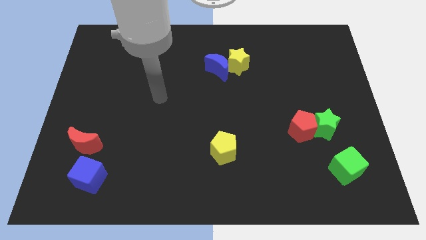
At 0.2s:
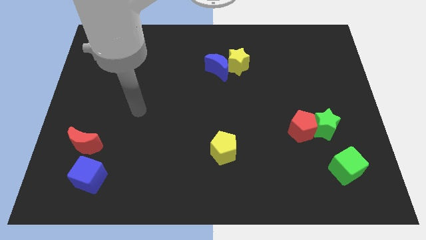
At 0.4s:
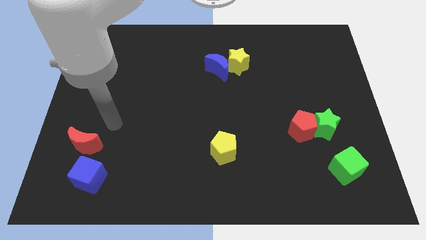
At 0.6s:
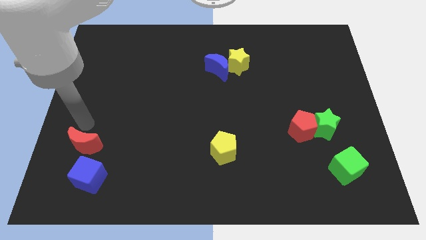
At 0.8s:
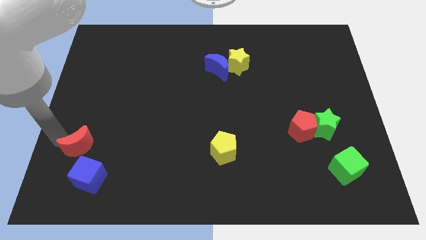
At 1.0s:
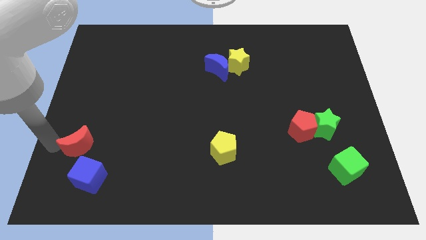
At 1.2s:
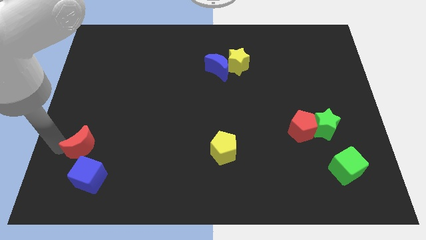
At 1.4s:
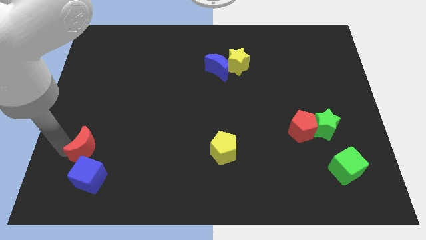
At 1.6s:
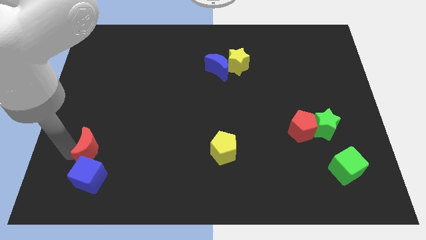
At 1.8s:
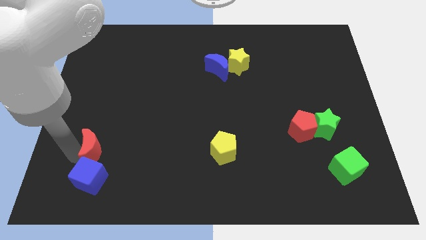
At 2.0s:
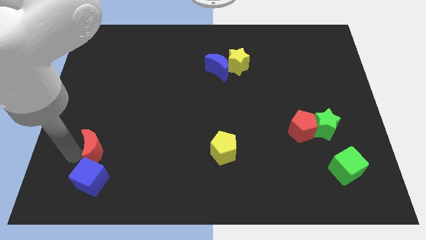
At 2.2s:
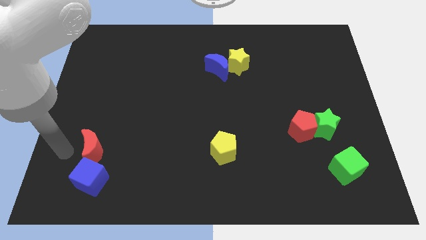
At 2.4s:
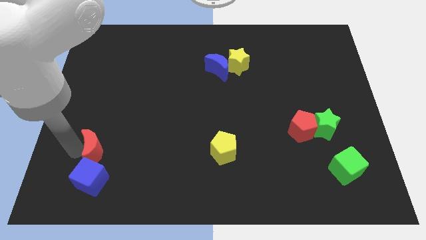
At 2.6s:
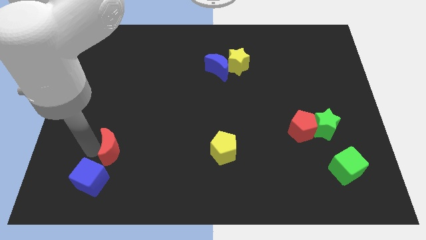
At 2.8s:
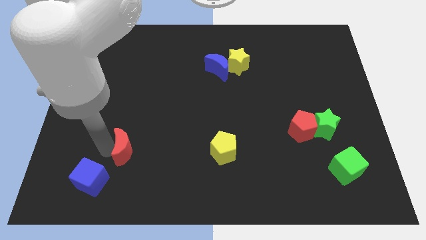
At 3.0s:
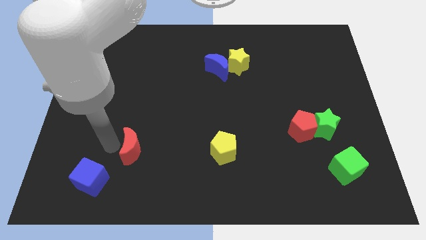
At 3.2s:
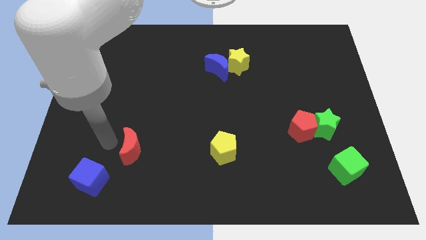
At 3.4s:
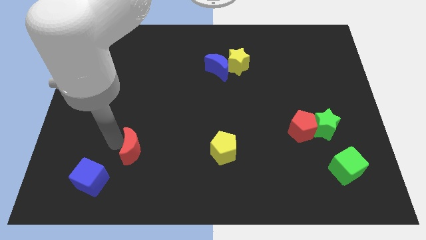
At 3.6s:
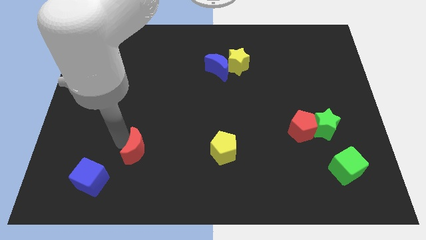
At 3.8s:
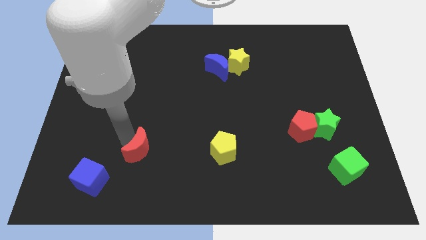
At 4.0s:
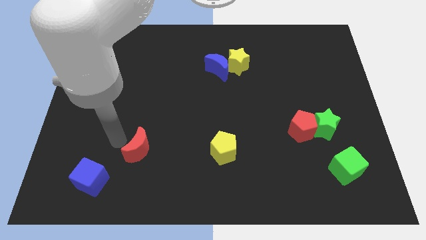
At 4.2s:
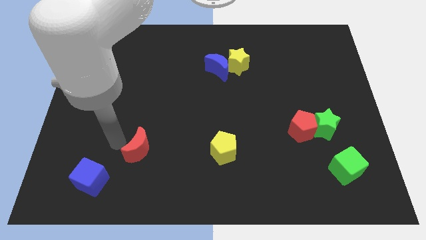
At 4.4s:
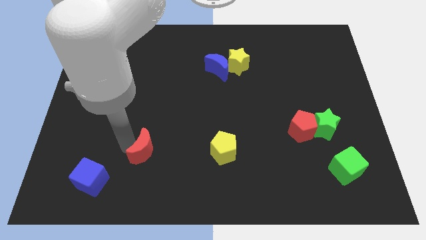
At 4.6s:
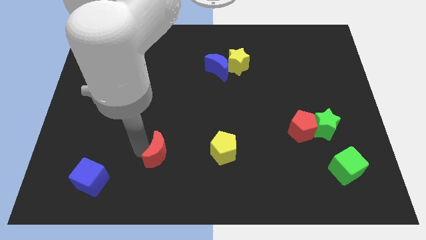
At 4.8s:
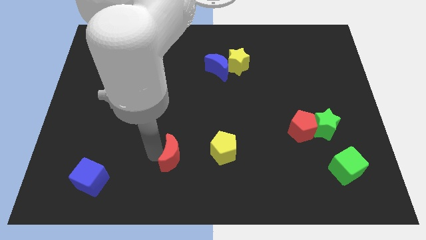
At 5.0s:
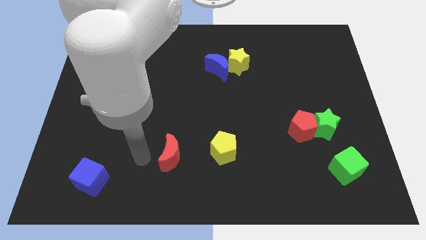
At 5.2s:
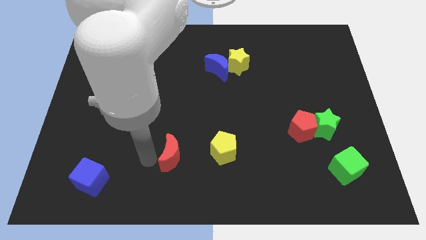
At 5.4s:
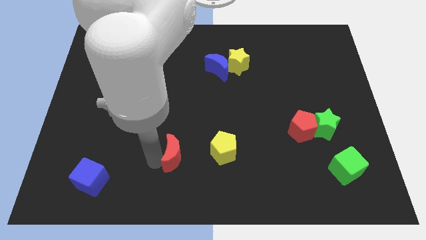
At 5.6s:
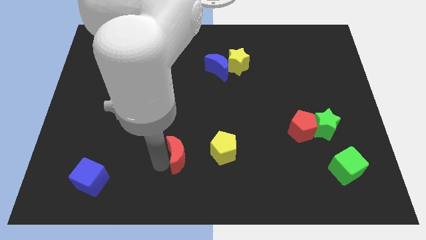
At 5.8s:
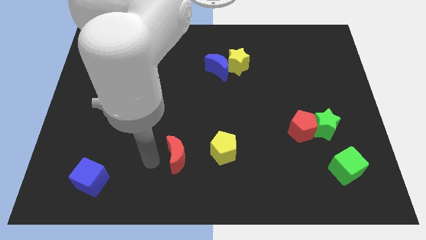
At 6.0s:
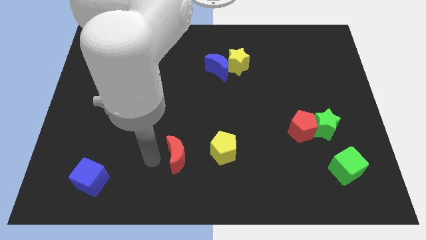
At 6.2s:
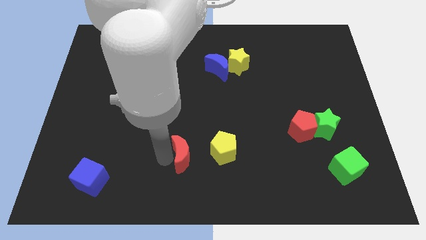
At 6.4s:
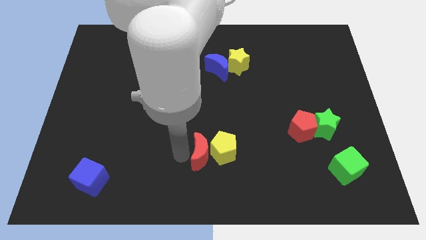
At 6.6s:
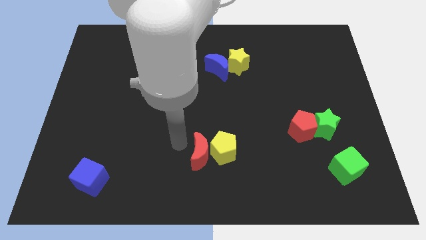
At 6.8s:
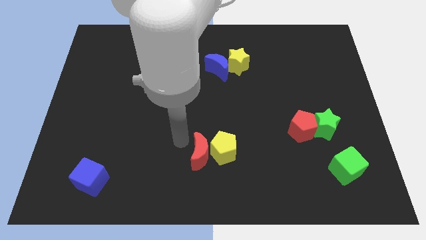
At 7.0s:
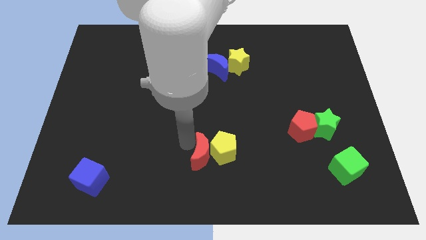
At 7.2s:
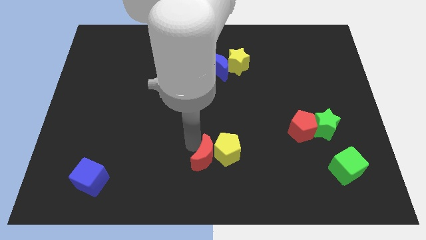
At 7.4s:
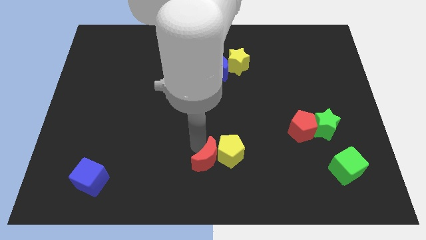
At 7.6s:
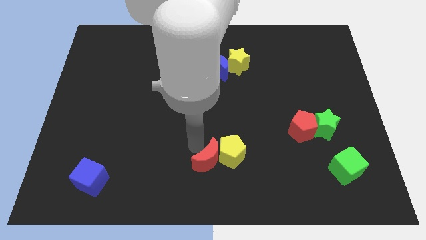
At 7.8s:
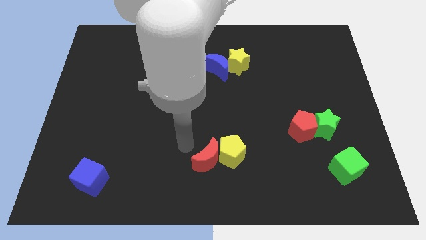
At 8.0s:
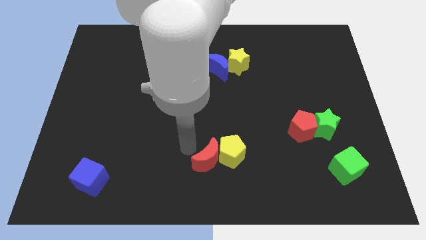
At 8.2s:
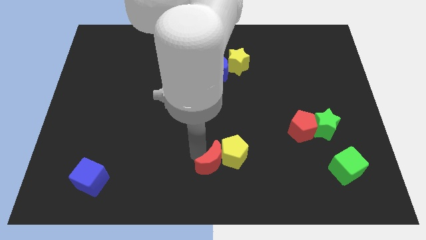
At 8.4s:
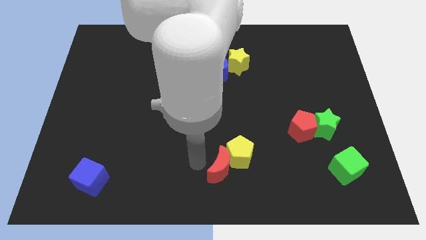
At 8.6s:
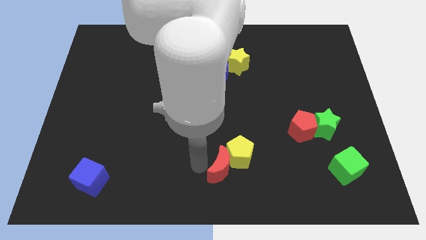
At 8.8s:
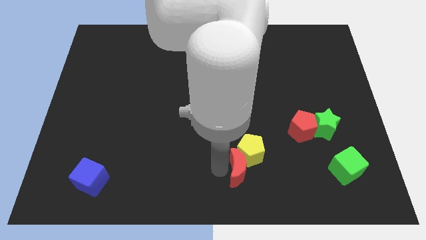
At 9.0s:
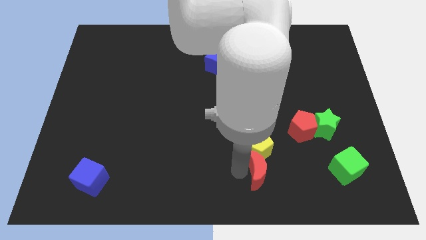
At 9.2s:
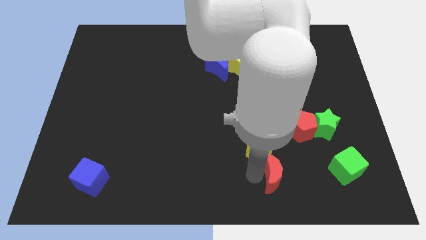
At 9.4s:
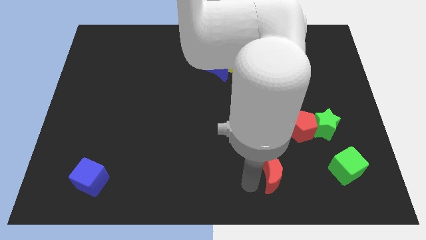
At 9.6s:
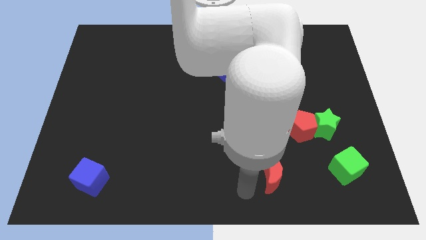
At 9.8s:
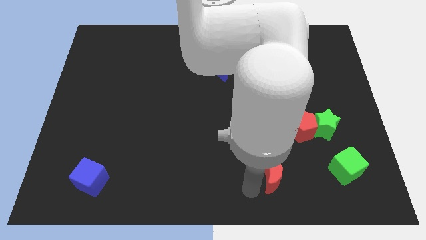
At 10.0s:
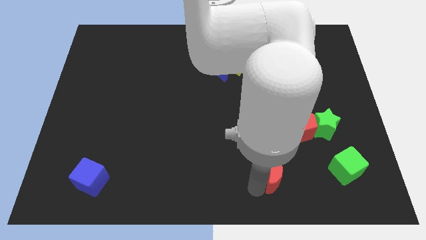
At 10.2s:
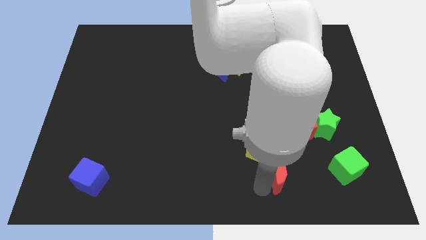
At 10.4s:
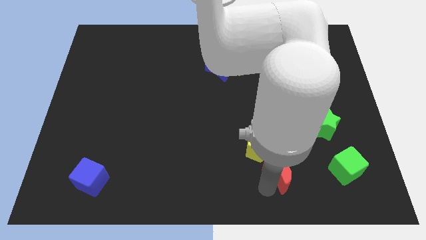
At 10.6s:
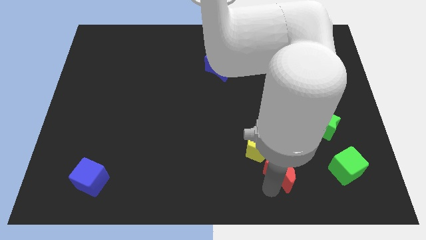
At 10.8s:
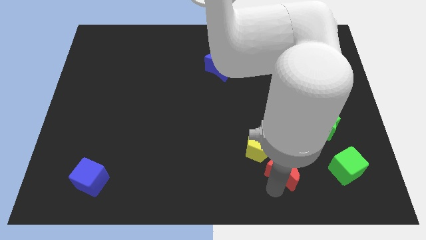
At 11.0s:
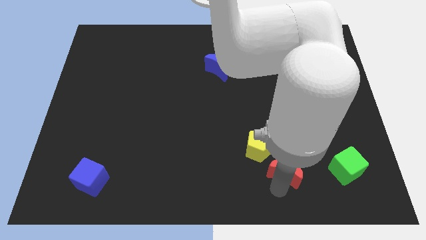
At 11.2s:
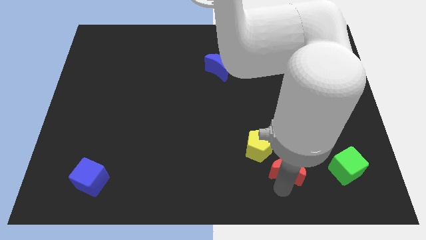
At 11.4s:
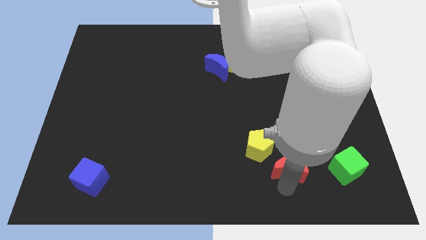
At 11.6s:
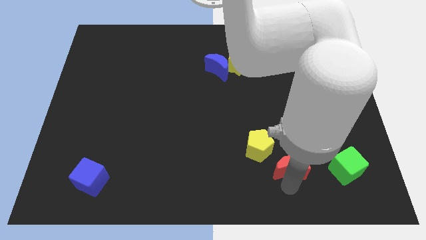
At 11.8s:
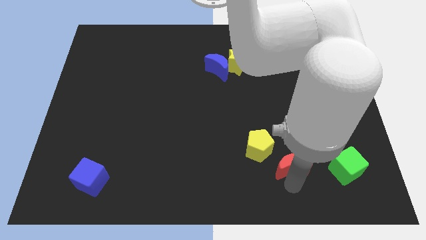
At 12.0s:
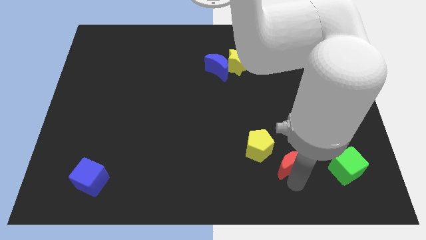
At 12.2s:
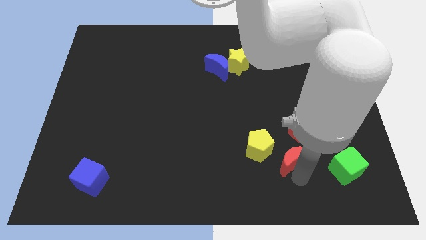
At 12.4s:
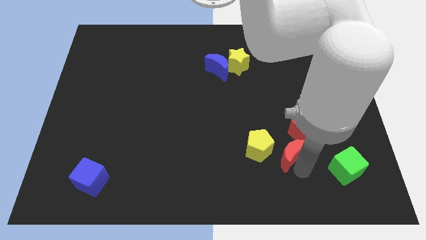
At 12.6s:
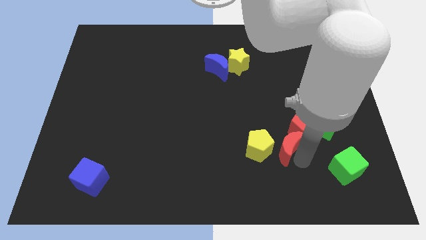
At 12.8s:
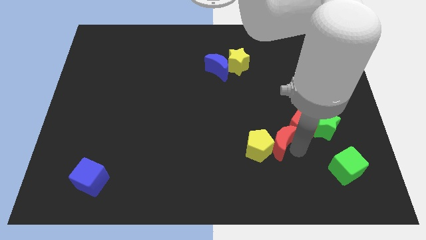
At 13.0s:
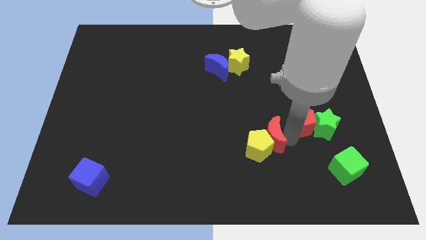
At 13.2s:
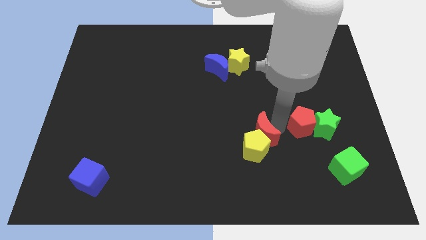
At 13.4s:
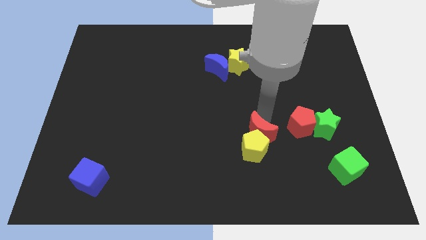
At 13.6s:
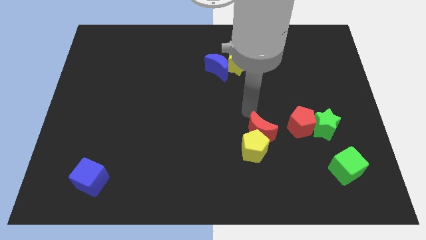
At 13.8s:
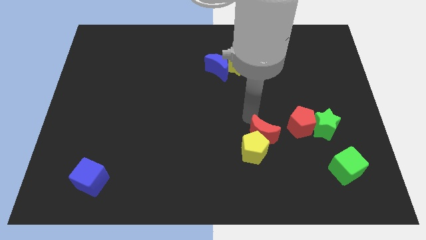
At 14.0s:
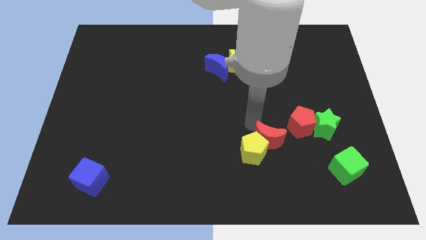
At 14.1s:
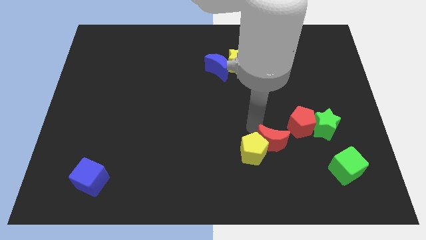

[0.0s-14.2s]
put the red moon to the bottom right side of the yellow pentagon
